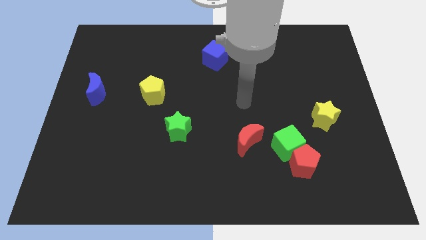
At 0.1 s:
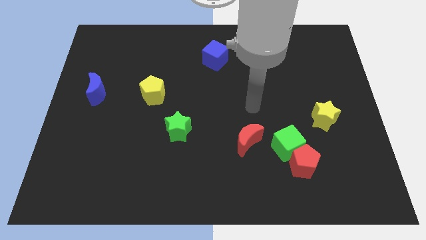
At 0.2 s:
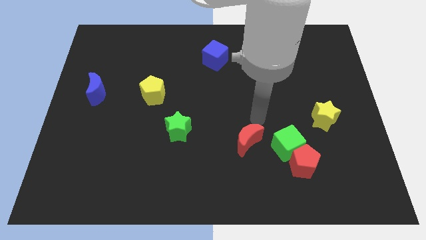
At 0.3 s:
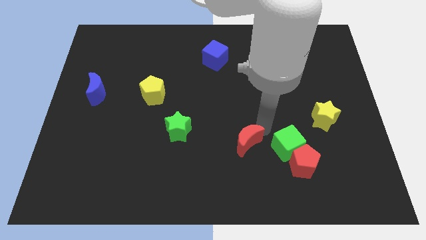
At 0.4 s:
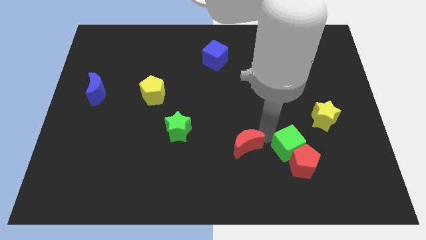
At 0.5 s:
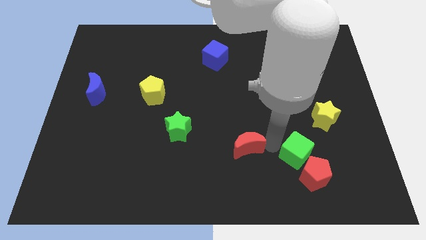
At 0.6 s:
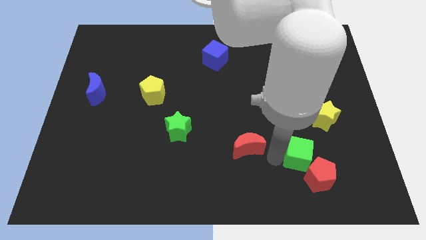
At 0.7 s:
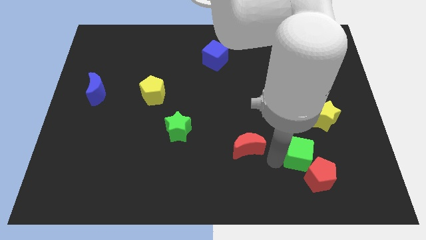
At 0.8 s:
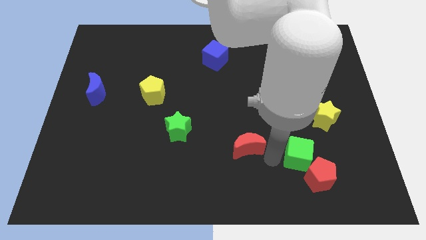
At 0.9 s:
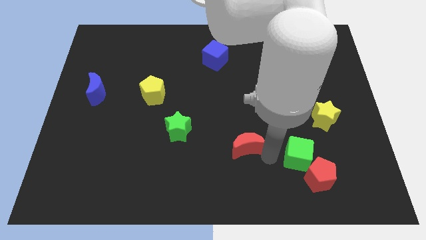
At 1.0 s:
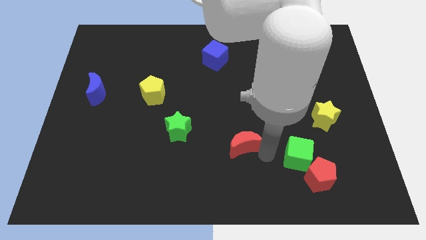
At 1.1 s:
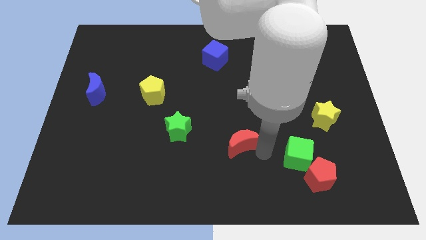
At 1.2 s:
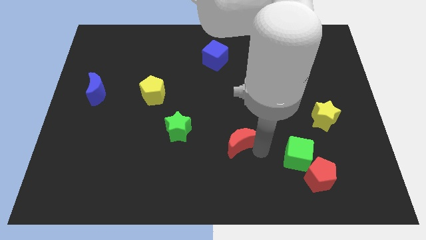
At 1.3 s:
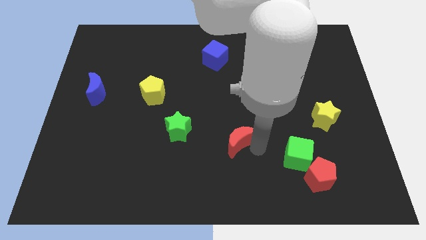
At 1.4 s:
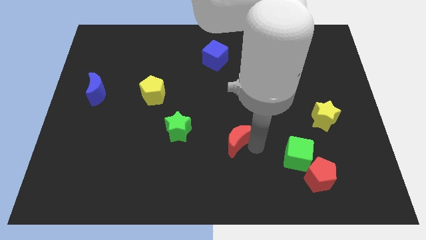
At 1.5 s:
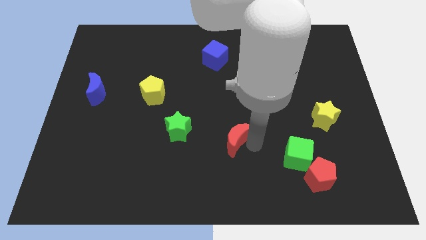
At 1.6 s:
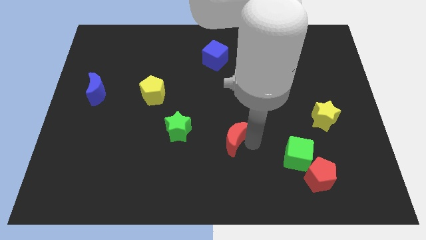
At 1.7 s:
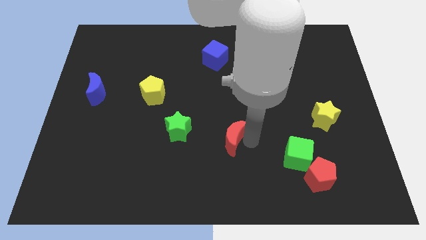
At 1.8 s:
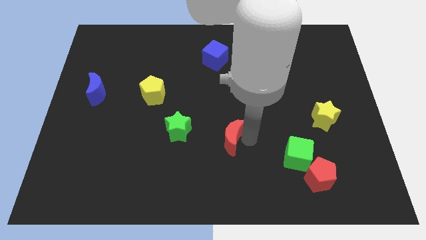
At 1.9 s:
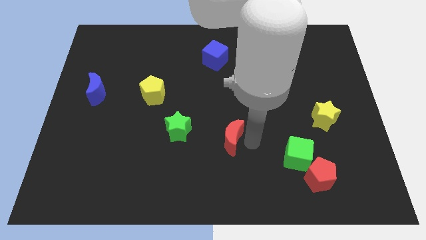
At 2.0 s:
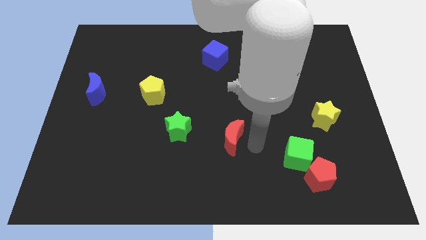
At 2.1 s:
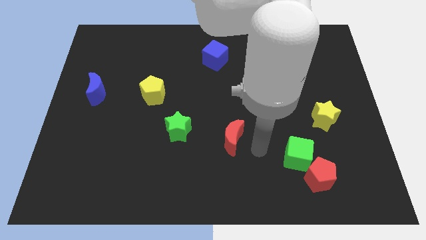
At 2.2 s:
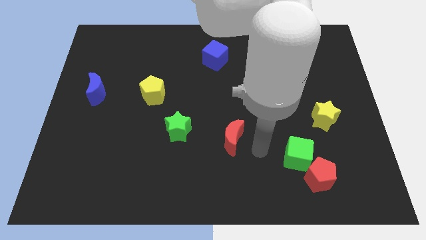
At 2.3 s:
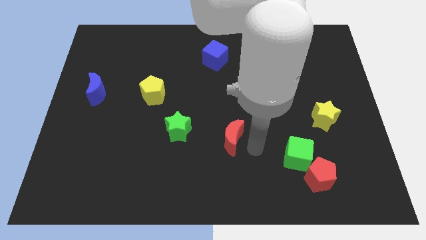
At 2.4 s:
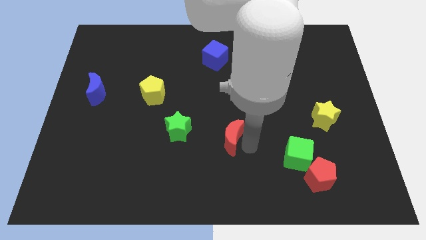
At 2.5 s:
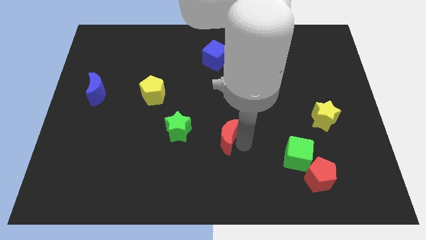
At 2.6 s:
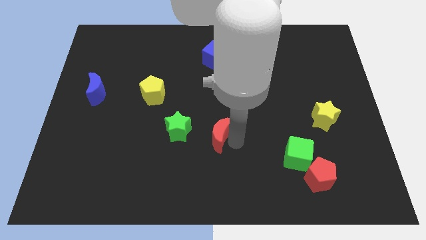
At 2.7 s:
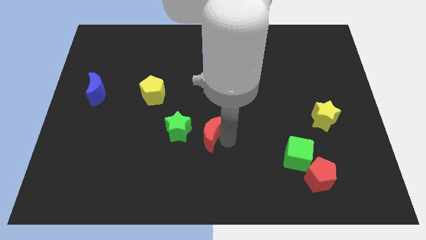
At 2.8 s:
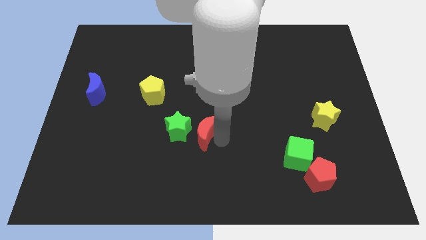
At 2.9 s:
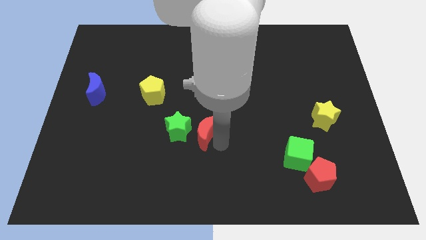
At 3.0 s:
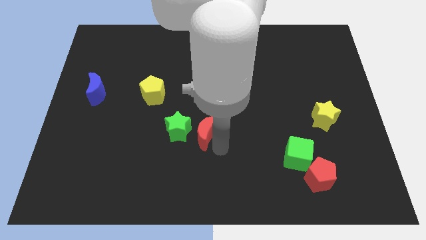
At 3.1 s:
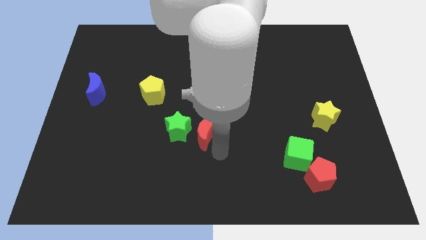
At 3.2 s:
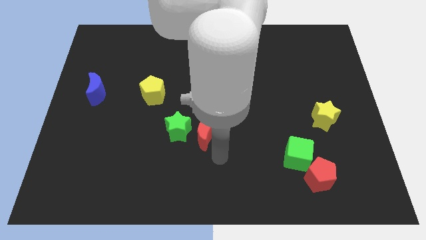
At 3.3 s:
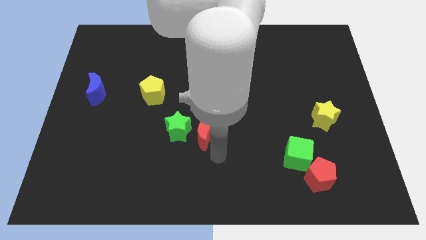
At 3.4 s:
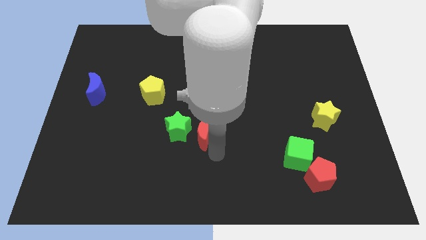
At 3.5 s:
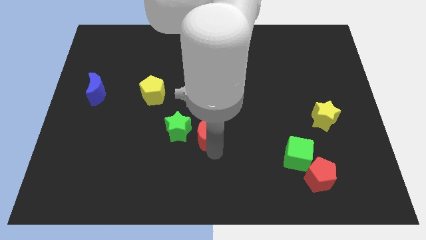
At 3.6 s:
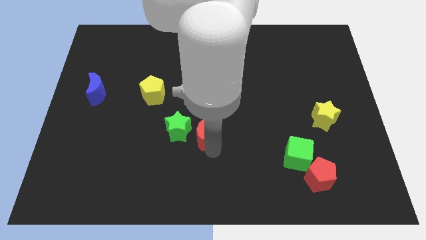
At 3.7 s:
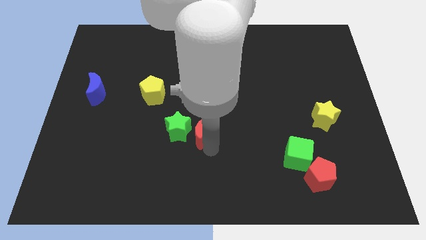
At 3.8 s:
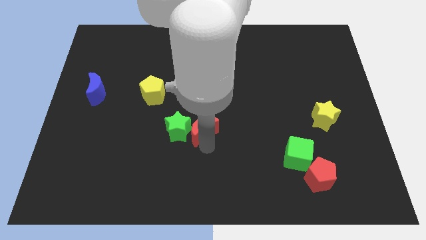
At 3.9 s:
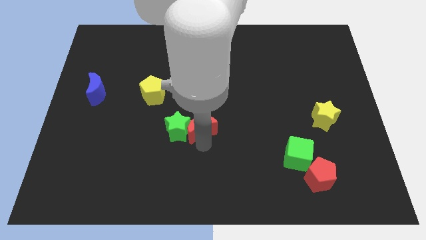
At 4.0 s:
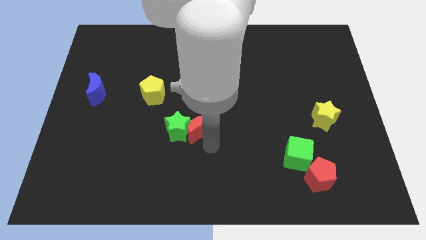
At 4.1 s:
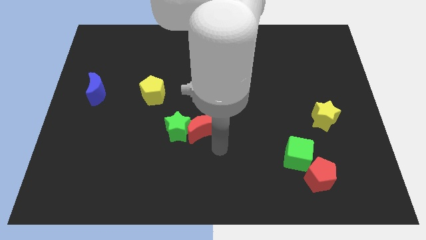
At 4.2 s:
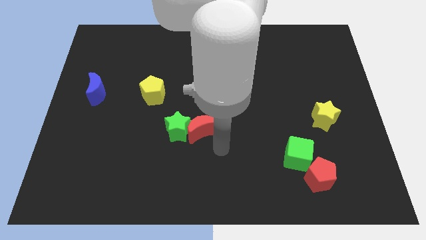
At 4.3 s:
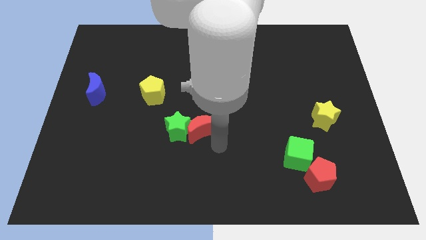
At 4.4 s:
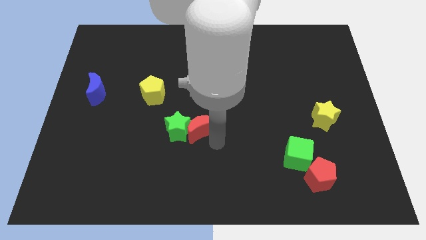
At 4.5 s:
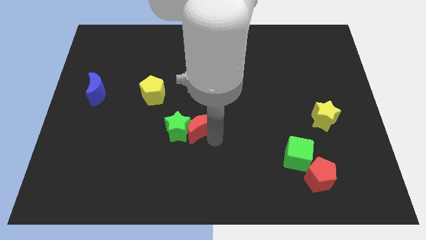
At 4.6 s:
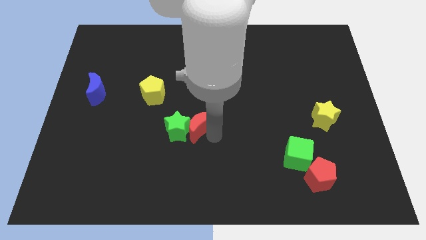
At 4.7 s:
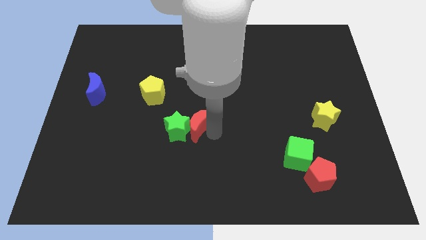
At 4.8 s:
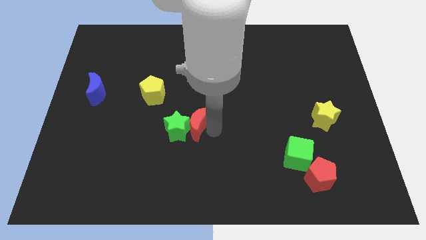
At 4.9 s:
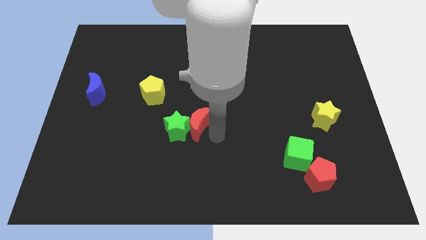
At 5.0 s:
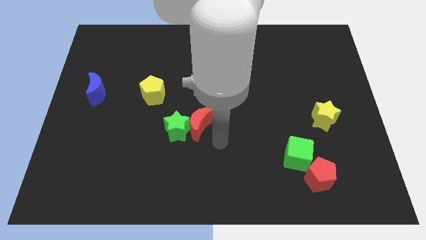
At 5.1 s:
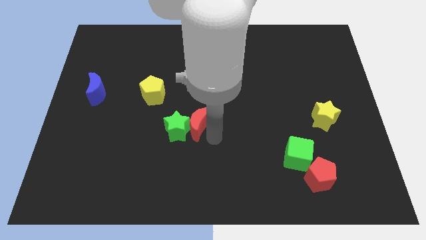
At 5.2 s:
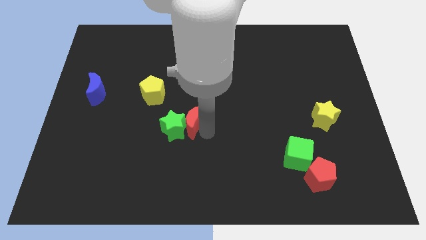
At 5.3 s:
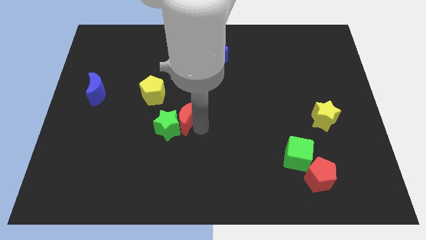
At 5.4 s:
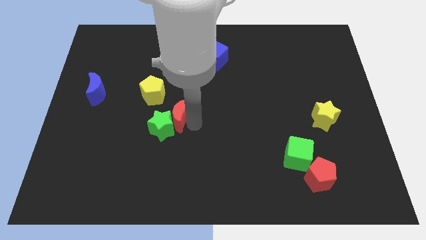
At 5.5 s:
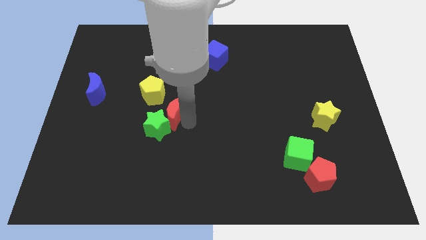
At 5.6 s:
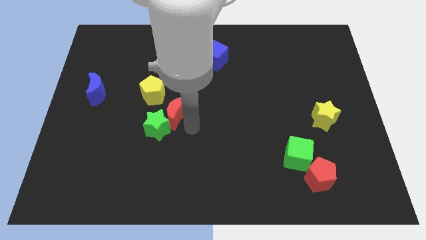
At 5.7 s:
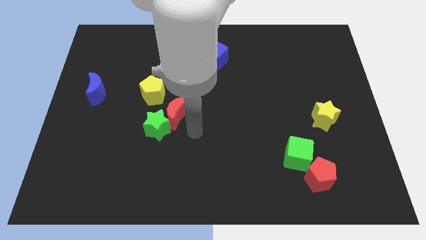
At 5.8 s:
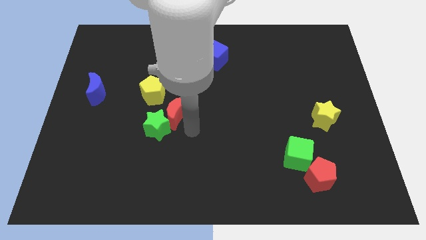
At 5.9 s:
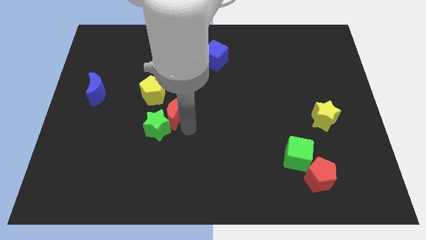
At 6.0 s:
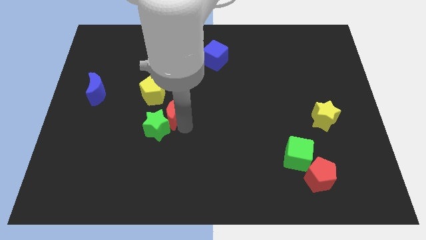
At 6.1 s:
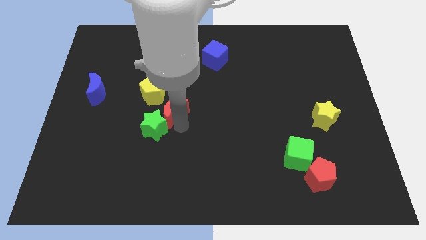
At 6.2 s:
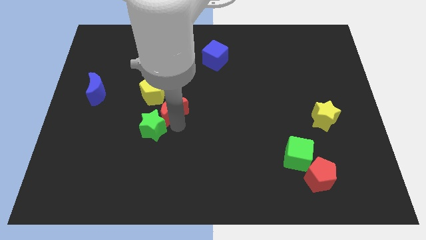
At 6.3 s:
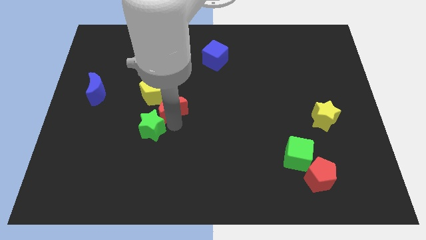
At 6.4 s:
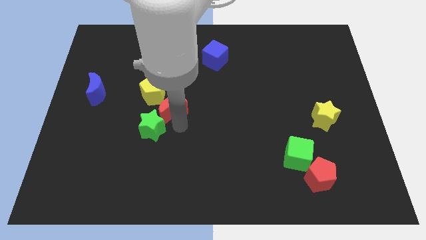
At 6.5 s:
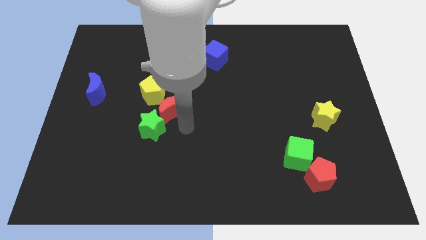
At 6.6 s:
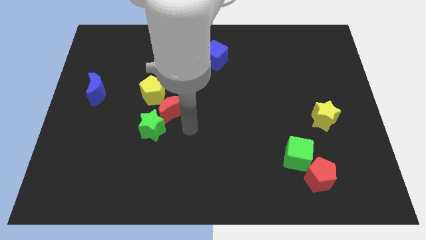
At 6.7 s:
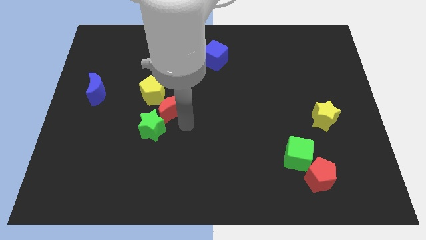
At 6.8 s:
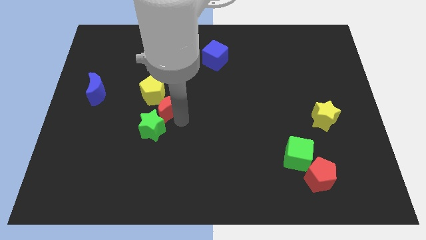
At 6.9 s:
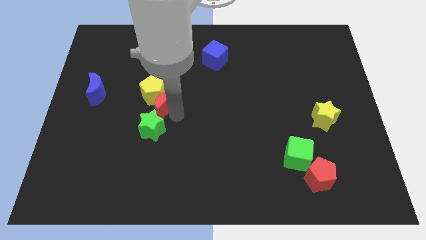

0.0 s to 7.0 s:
push the red moon close to the yellow pentagon
